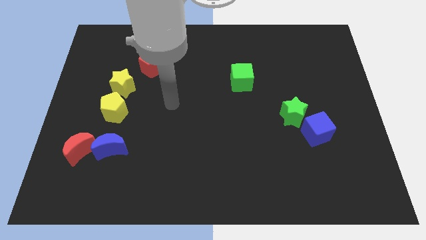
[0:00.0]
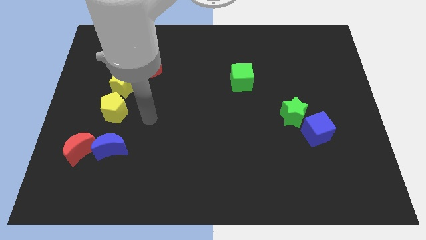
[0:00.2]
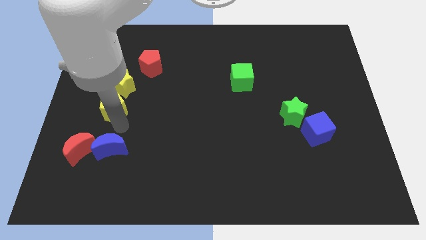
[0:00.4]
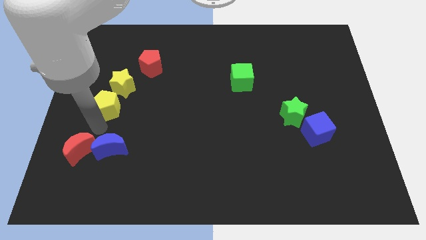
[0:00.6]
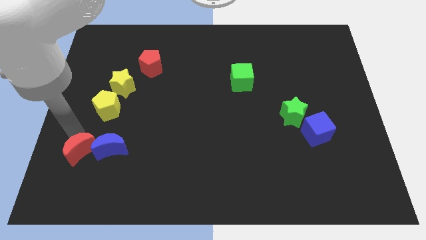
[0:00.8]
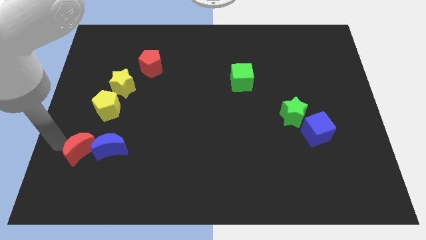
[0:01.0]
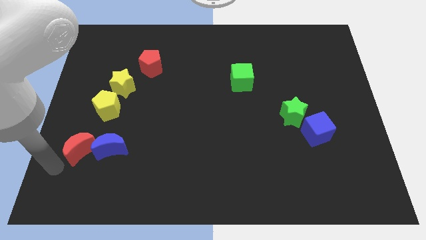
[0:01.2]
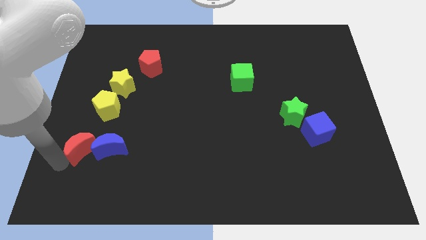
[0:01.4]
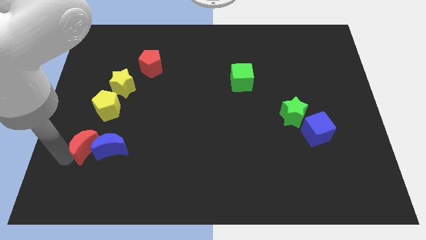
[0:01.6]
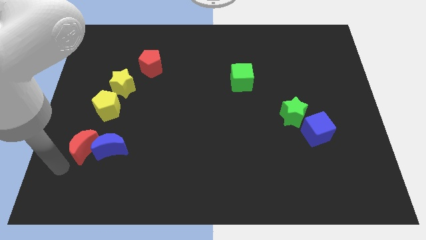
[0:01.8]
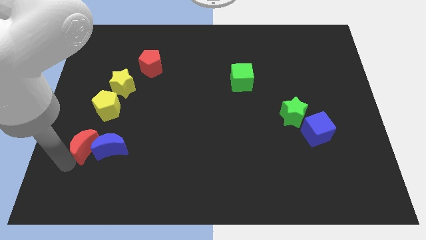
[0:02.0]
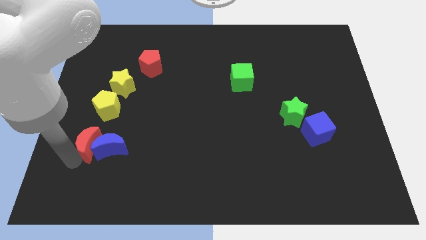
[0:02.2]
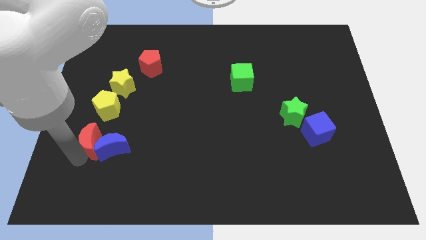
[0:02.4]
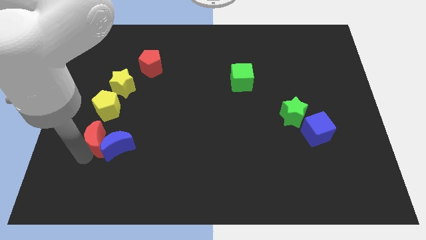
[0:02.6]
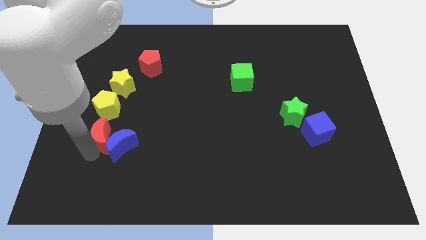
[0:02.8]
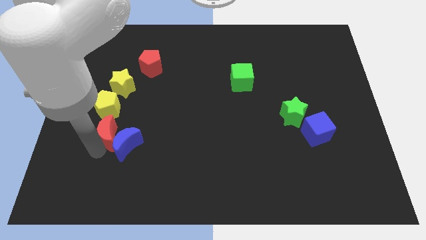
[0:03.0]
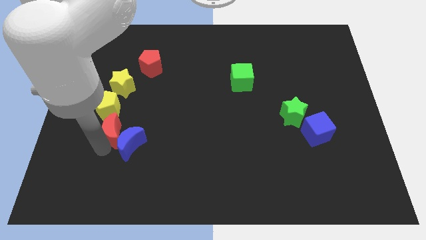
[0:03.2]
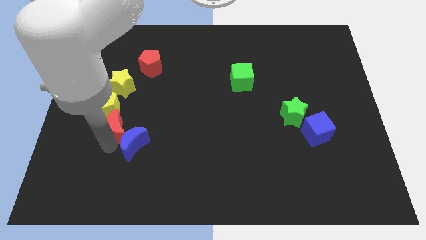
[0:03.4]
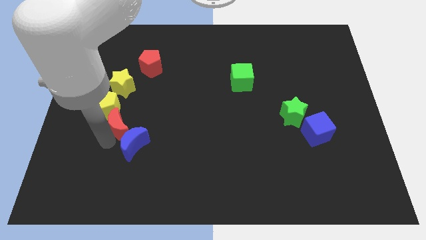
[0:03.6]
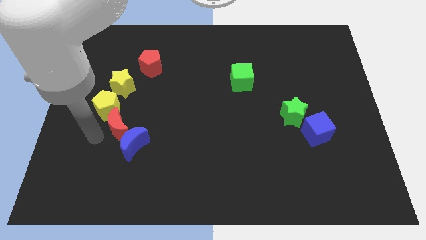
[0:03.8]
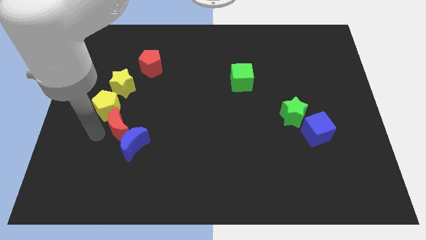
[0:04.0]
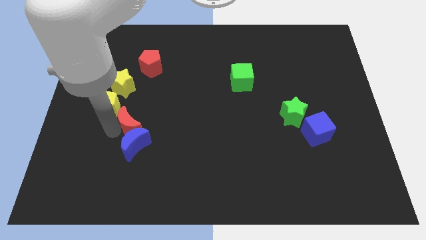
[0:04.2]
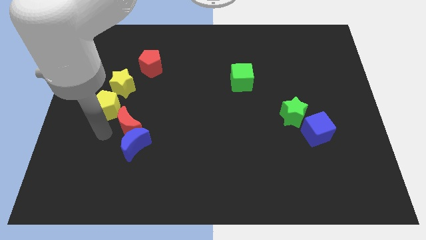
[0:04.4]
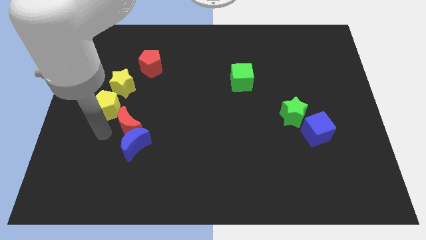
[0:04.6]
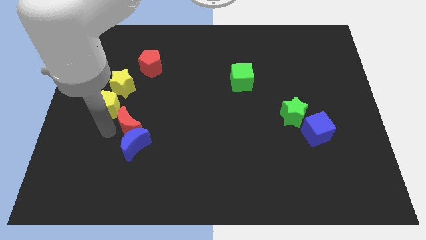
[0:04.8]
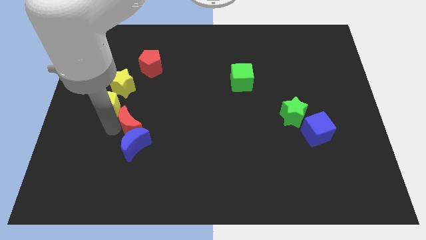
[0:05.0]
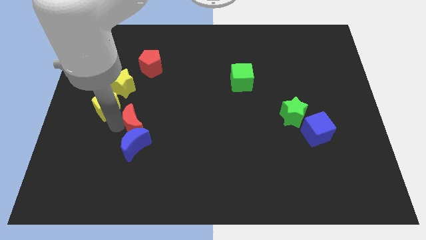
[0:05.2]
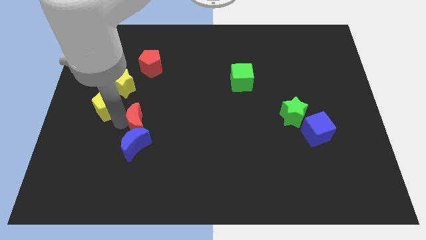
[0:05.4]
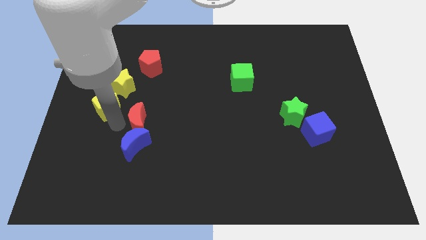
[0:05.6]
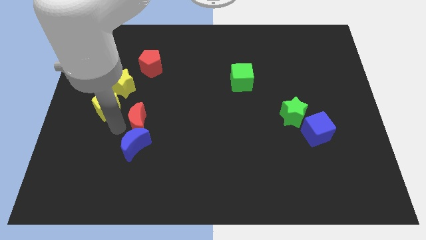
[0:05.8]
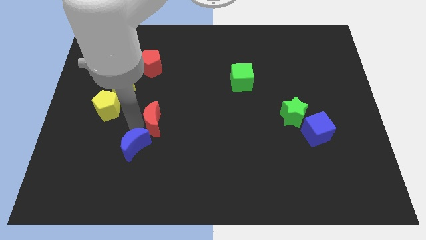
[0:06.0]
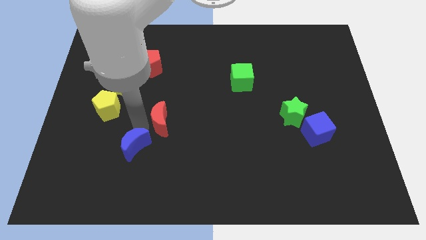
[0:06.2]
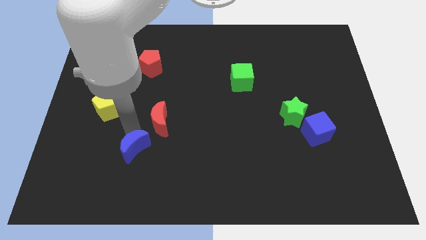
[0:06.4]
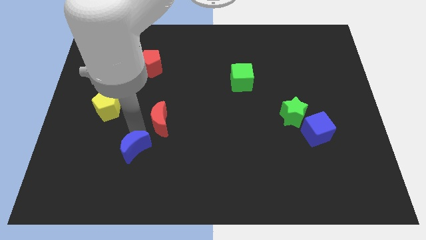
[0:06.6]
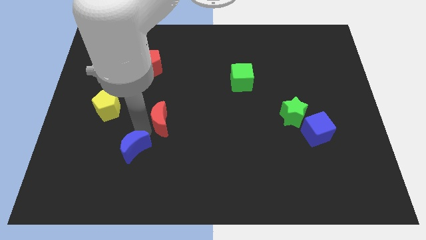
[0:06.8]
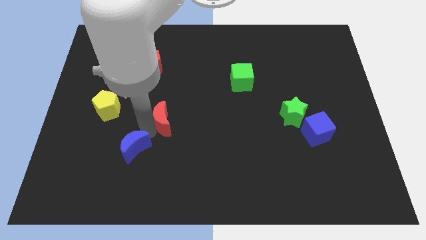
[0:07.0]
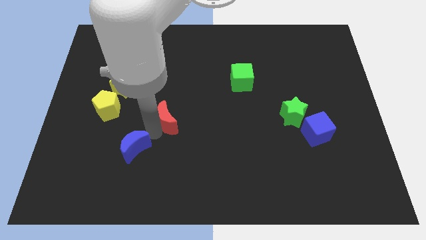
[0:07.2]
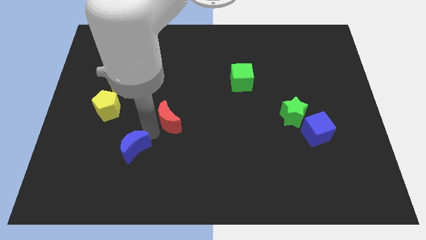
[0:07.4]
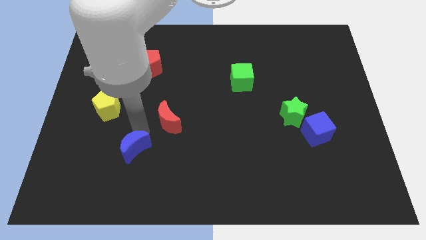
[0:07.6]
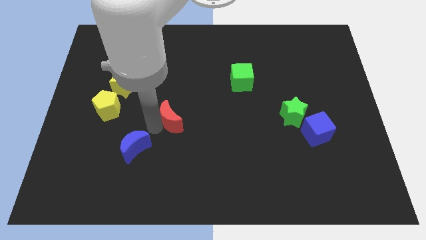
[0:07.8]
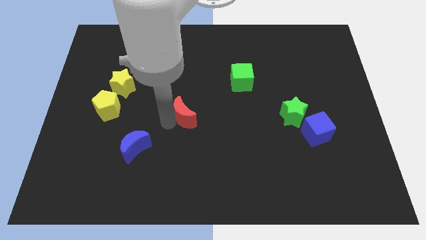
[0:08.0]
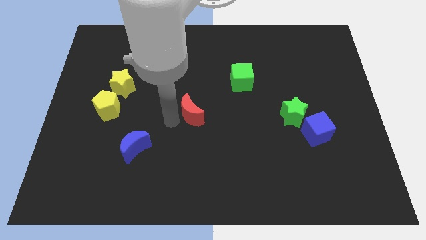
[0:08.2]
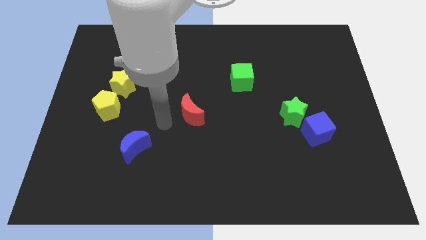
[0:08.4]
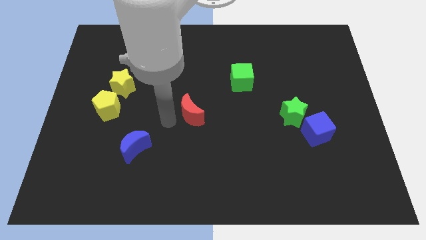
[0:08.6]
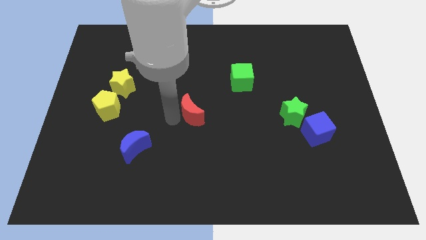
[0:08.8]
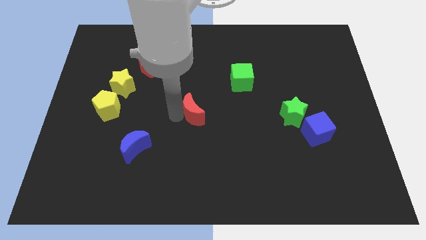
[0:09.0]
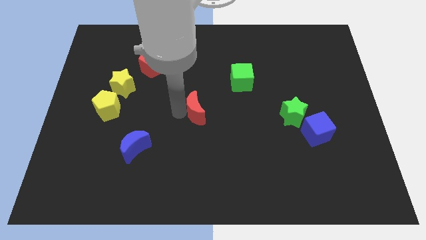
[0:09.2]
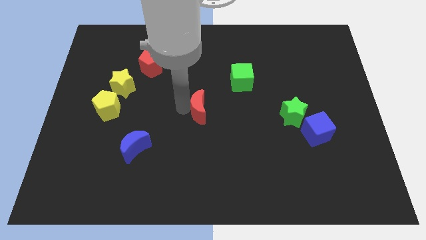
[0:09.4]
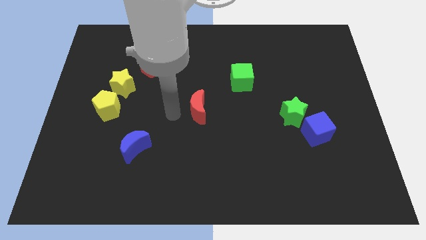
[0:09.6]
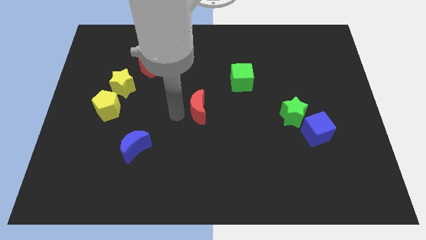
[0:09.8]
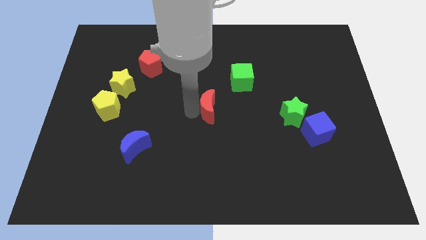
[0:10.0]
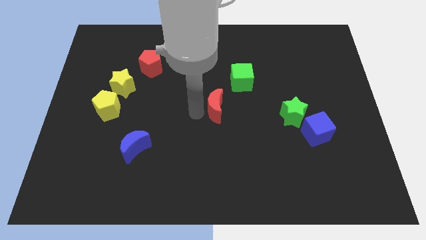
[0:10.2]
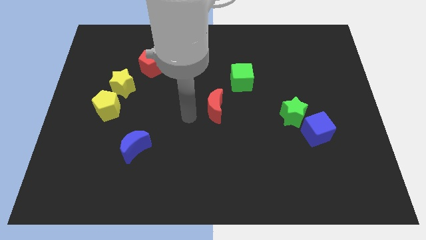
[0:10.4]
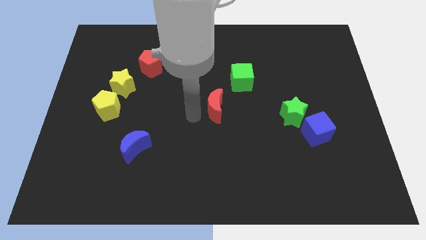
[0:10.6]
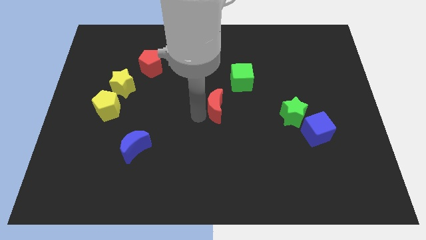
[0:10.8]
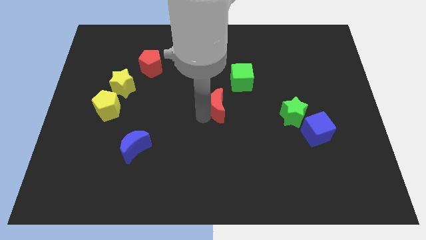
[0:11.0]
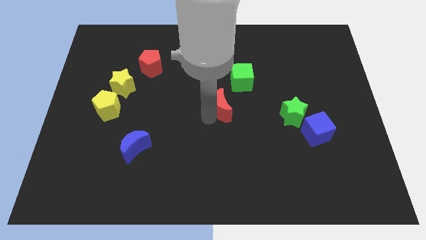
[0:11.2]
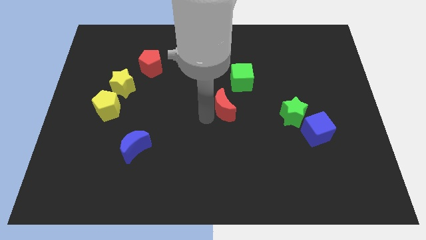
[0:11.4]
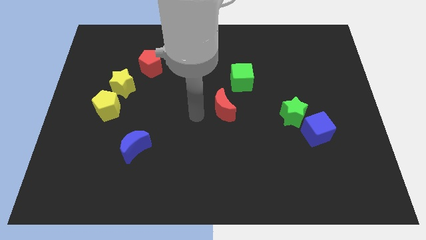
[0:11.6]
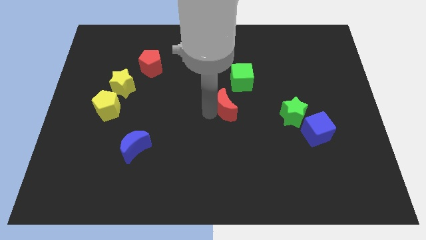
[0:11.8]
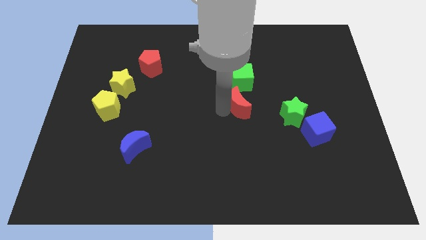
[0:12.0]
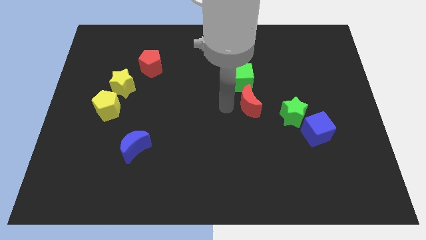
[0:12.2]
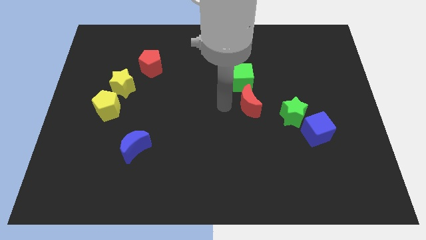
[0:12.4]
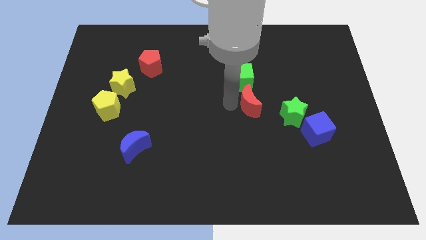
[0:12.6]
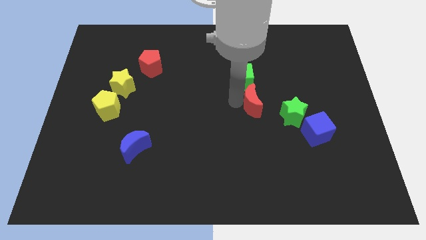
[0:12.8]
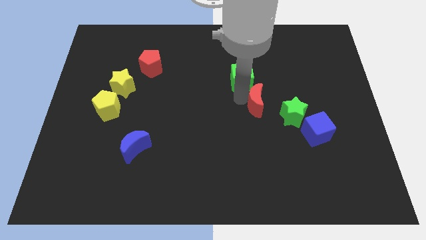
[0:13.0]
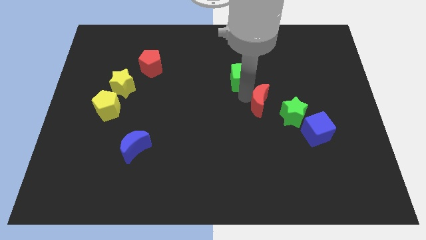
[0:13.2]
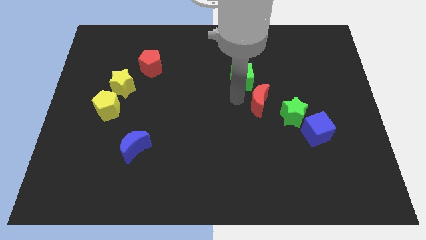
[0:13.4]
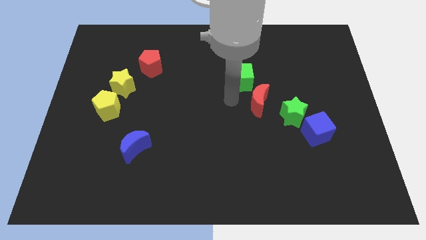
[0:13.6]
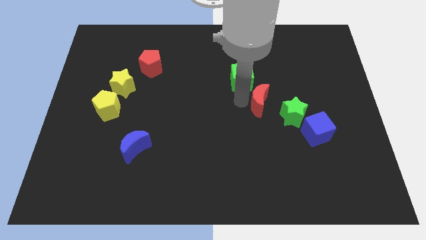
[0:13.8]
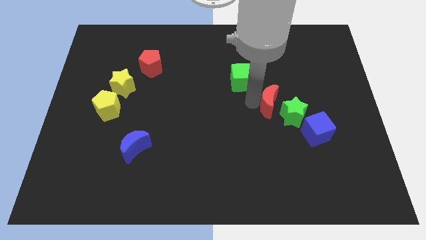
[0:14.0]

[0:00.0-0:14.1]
move the red moon to the top left of the blue cube

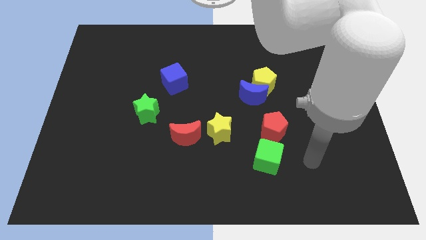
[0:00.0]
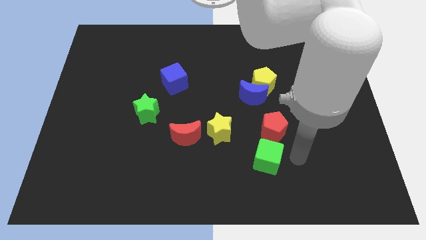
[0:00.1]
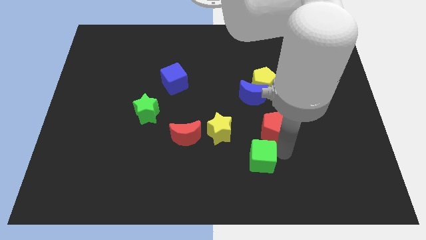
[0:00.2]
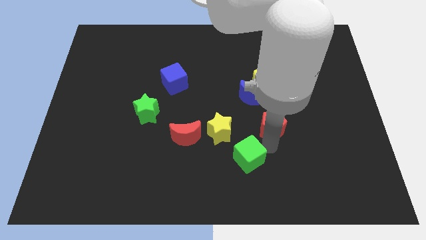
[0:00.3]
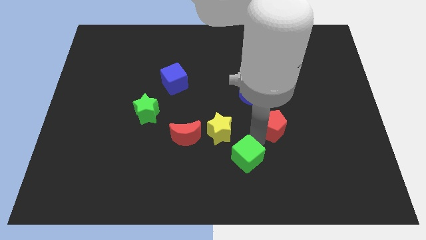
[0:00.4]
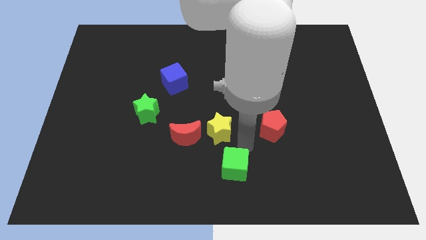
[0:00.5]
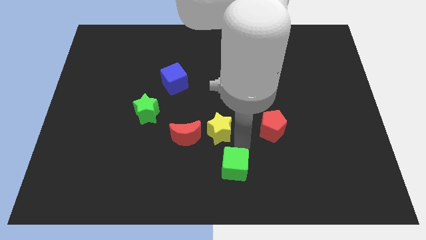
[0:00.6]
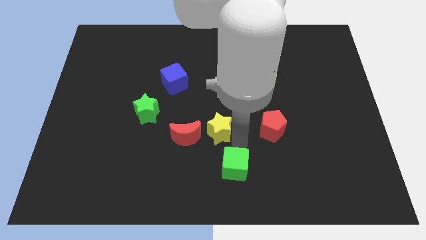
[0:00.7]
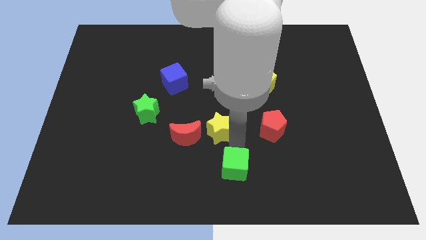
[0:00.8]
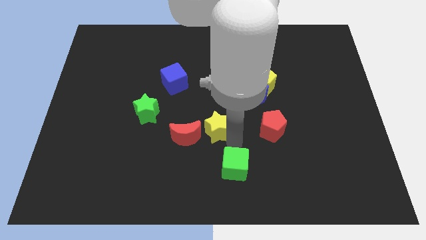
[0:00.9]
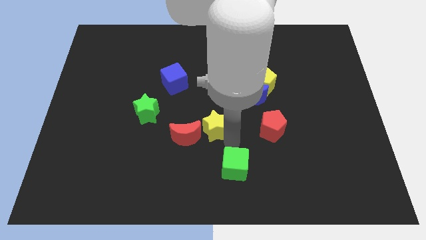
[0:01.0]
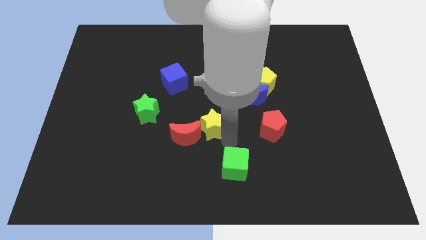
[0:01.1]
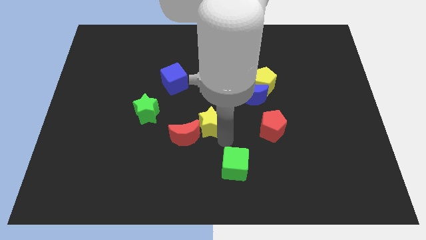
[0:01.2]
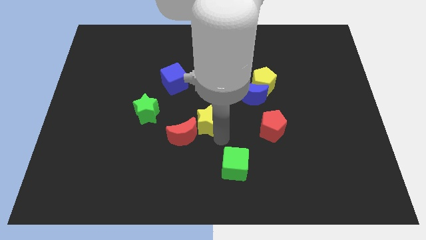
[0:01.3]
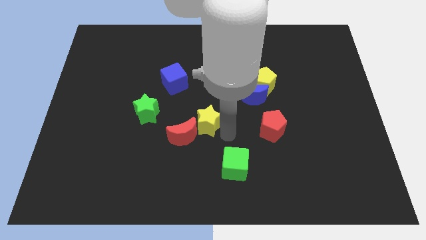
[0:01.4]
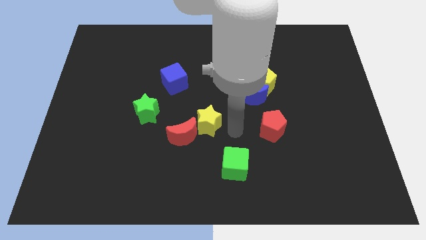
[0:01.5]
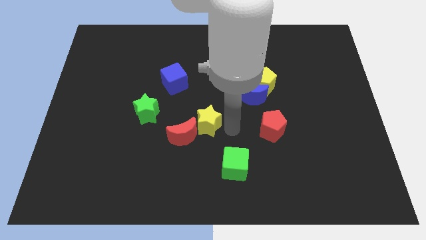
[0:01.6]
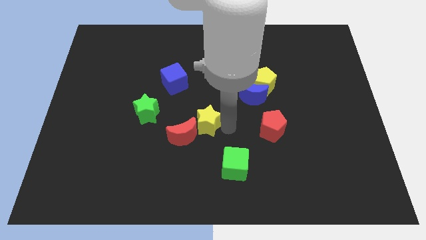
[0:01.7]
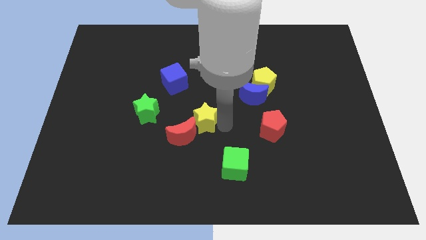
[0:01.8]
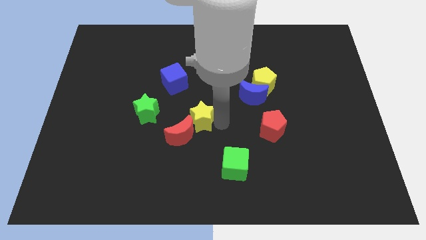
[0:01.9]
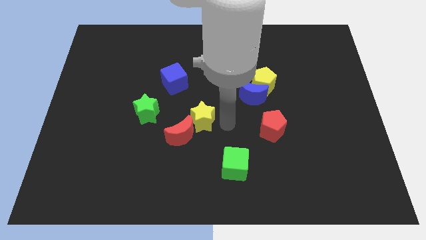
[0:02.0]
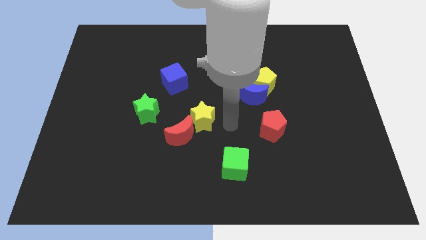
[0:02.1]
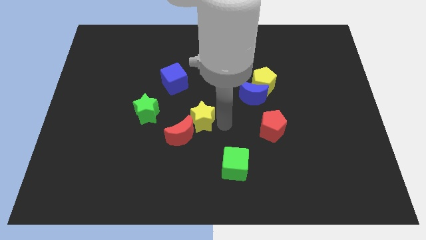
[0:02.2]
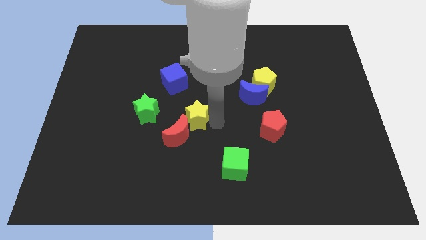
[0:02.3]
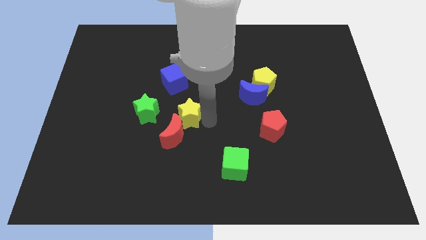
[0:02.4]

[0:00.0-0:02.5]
move the yellow star to the bottom side of the blue cube
